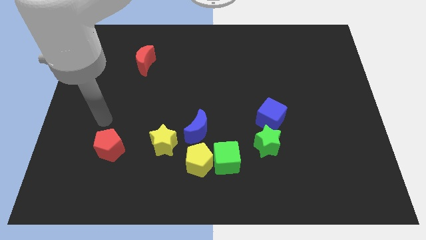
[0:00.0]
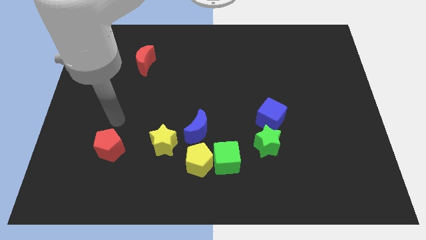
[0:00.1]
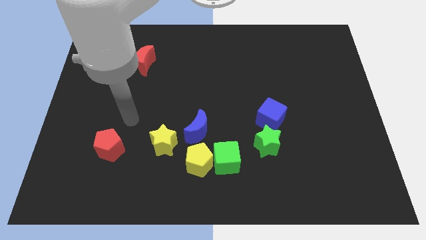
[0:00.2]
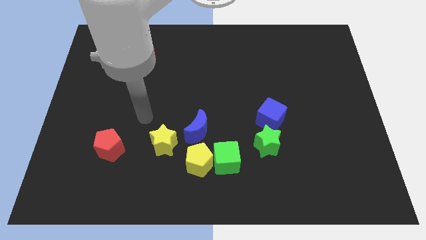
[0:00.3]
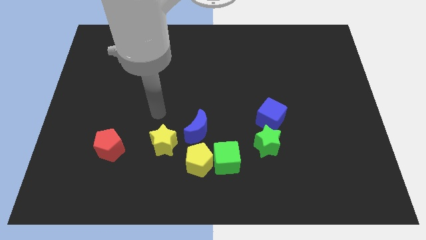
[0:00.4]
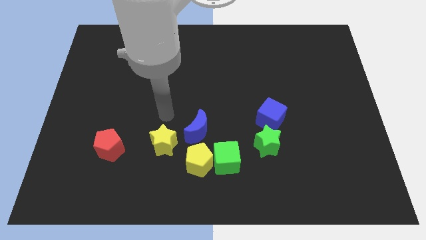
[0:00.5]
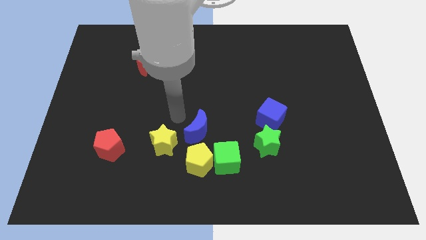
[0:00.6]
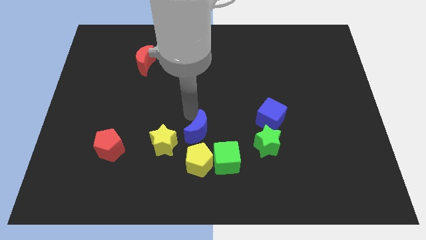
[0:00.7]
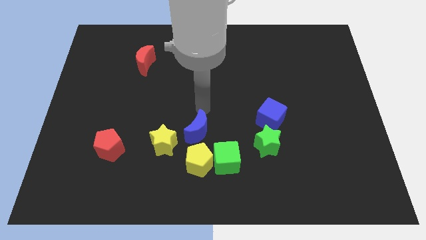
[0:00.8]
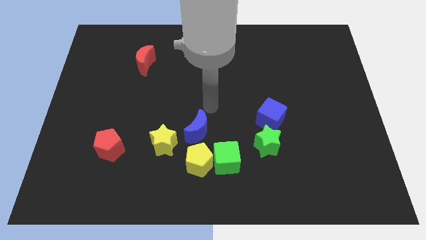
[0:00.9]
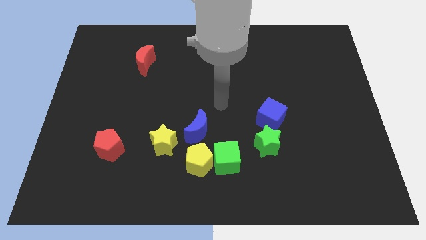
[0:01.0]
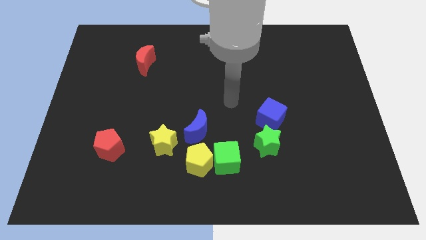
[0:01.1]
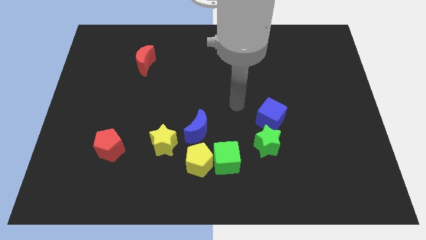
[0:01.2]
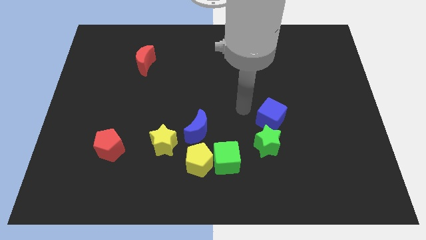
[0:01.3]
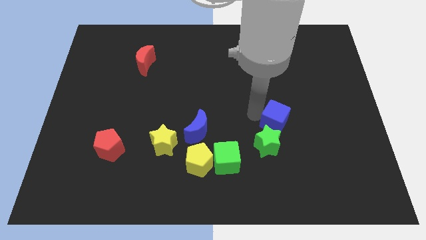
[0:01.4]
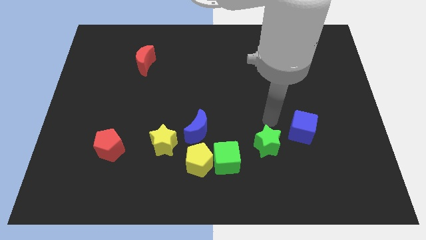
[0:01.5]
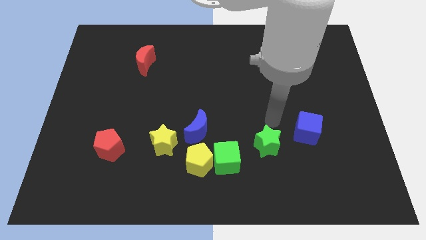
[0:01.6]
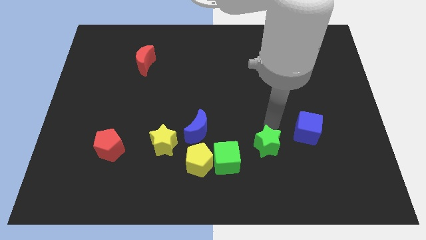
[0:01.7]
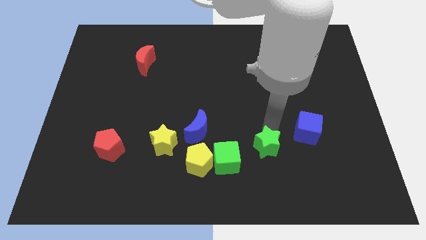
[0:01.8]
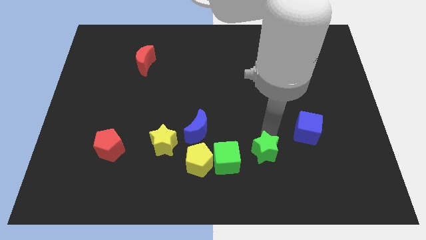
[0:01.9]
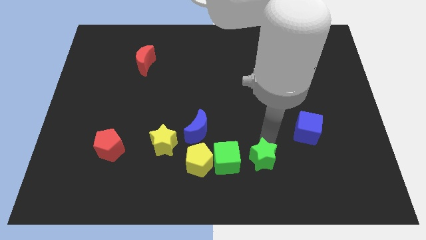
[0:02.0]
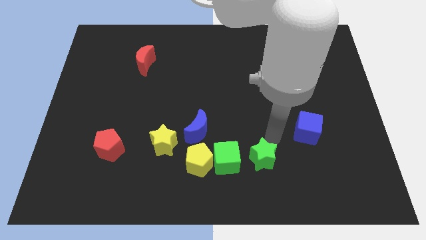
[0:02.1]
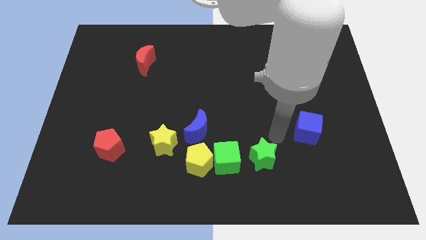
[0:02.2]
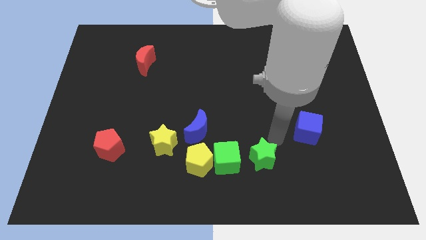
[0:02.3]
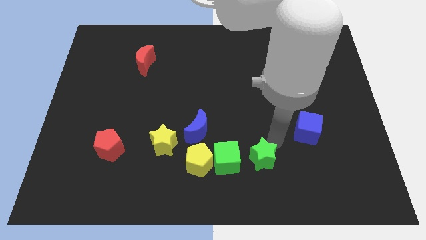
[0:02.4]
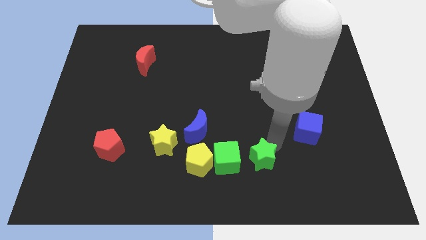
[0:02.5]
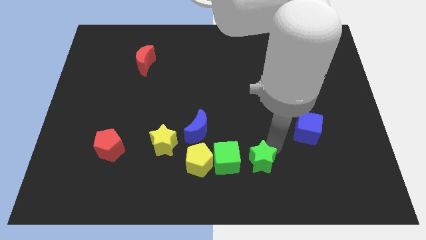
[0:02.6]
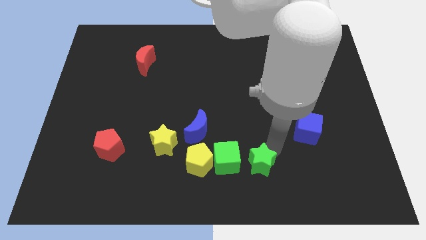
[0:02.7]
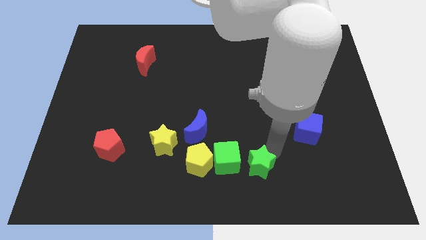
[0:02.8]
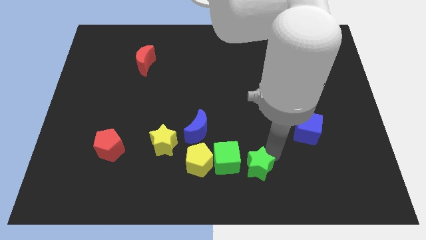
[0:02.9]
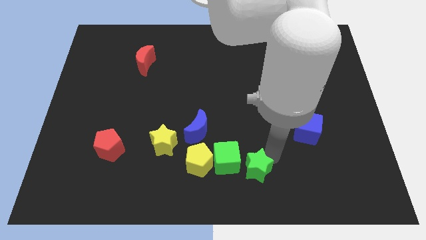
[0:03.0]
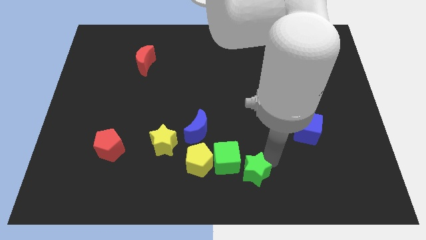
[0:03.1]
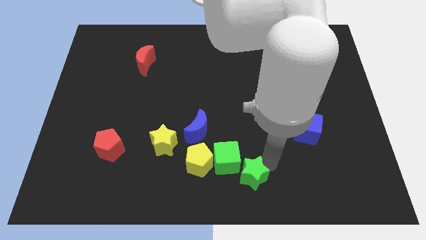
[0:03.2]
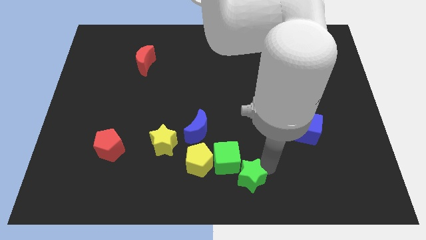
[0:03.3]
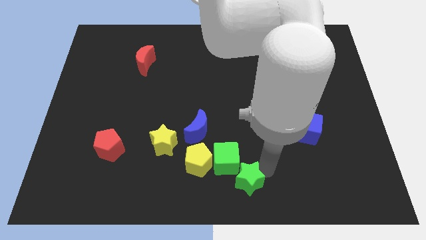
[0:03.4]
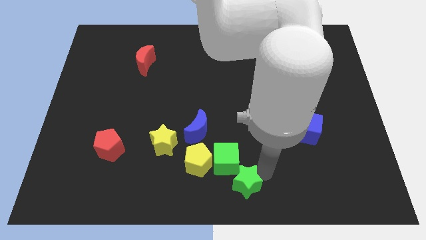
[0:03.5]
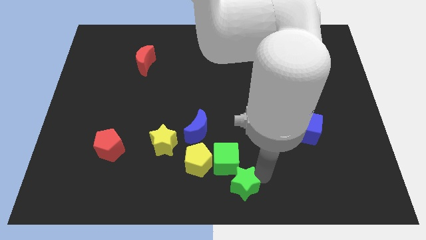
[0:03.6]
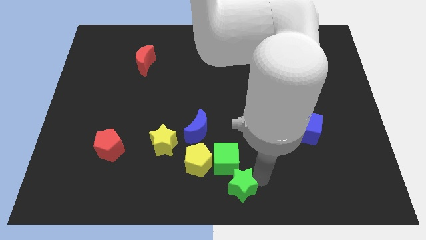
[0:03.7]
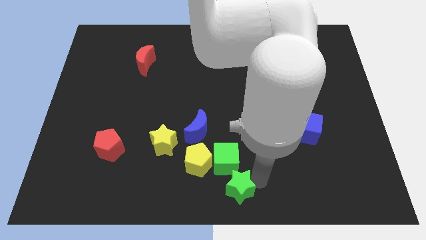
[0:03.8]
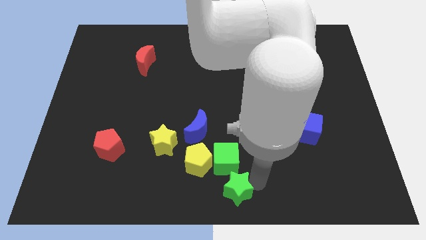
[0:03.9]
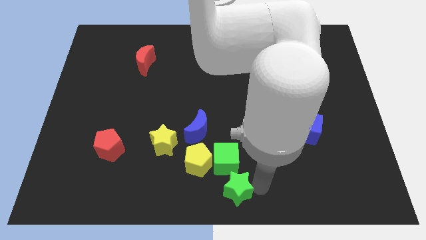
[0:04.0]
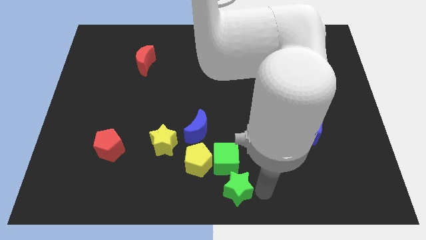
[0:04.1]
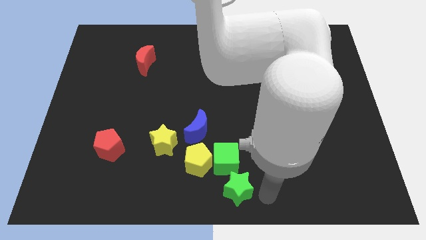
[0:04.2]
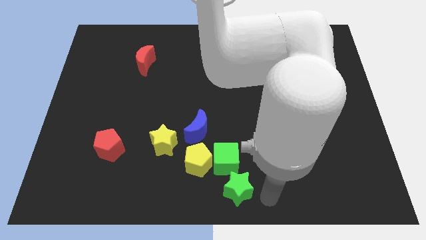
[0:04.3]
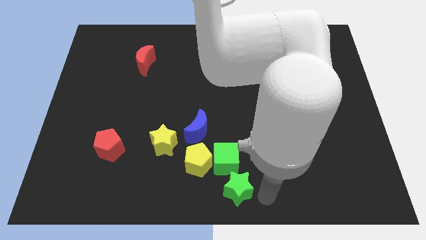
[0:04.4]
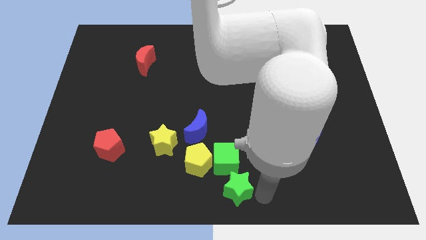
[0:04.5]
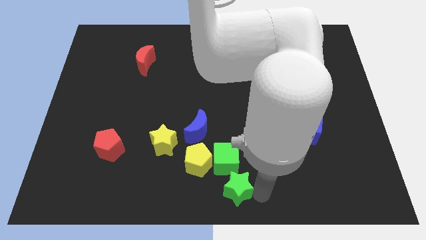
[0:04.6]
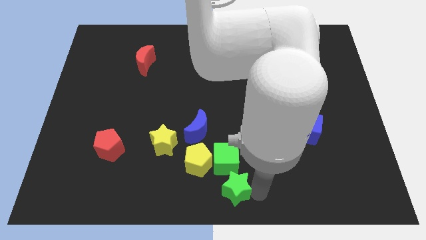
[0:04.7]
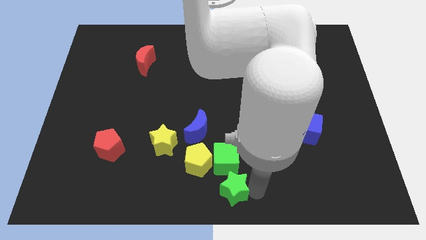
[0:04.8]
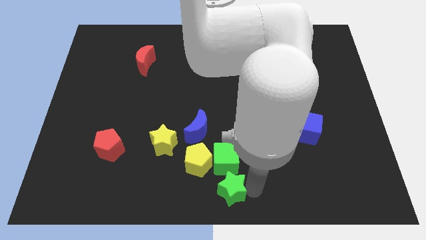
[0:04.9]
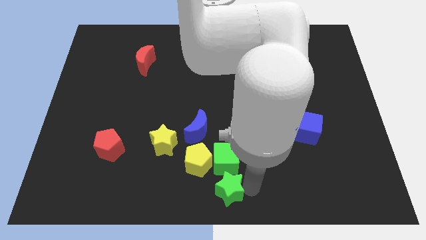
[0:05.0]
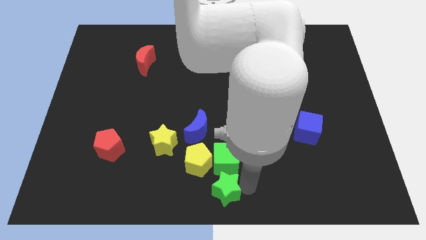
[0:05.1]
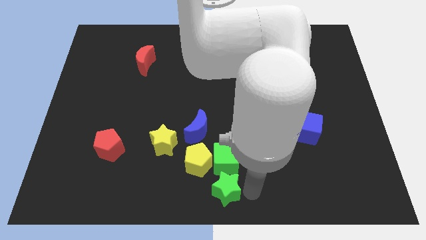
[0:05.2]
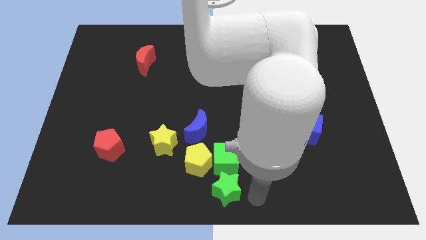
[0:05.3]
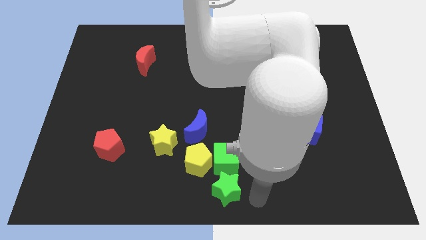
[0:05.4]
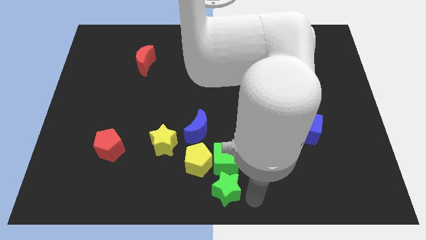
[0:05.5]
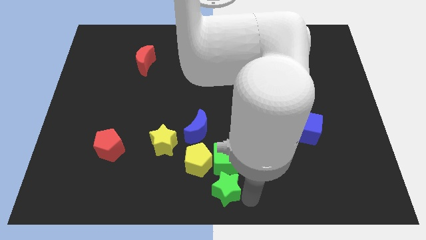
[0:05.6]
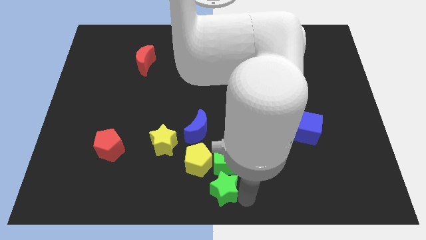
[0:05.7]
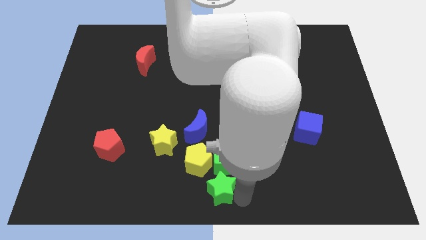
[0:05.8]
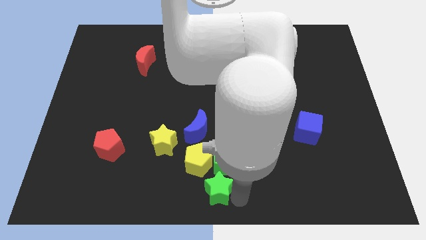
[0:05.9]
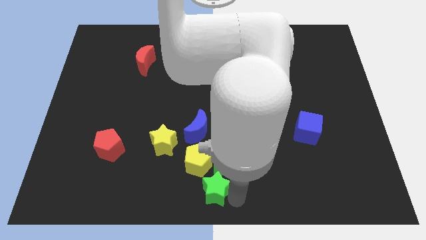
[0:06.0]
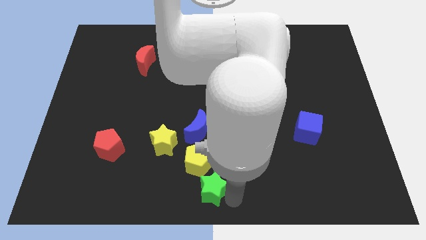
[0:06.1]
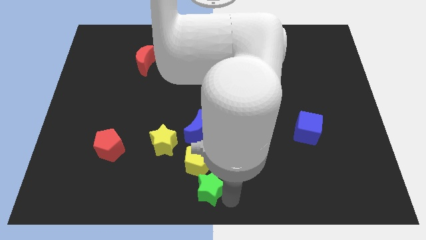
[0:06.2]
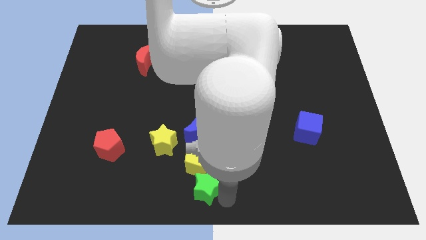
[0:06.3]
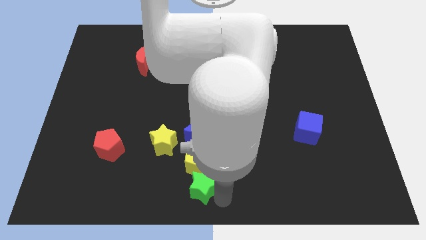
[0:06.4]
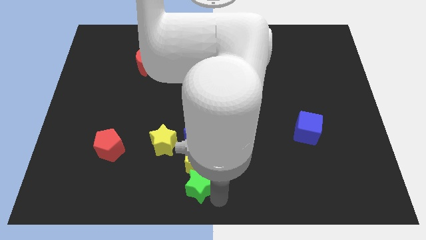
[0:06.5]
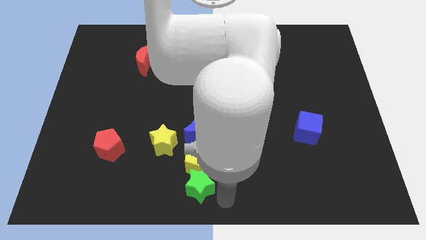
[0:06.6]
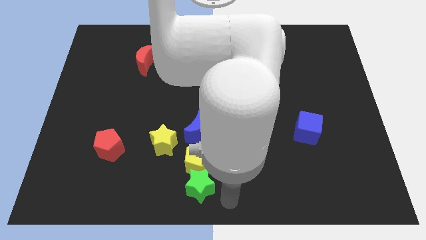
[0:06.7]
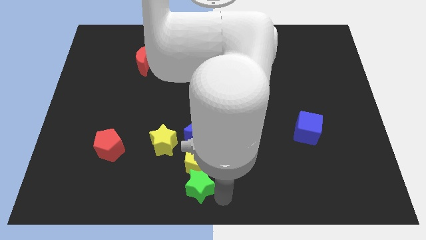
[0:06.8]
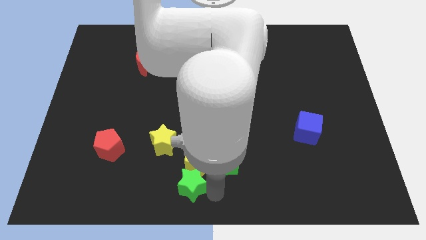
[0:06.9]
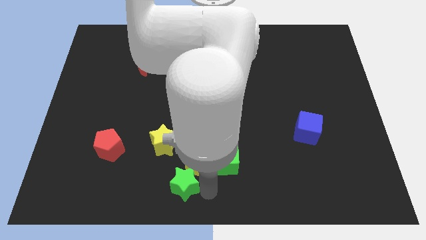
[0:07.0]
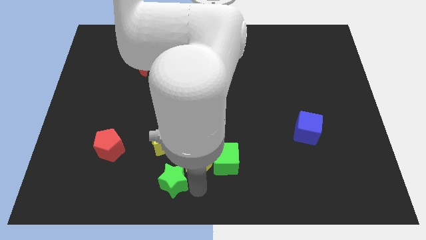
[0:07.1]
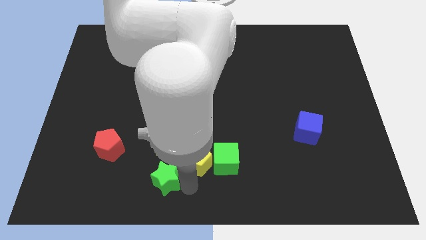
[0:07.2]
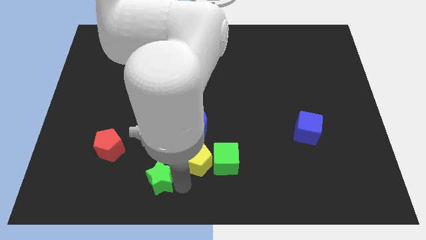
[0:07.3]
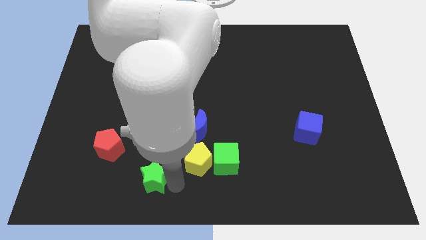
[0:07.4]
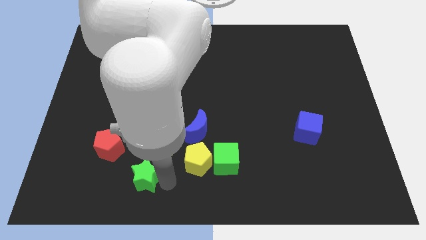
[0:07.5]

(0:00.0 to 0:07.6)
push the green star to the bottom right side of the red pentagon
